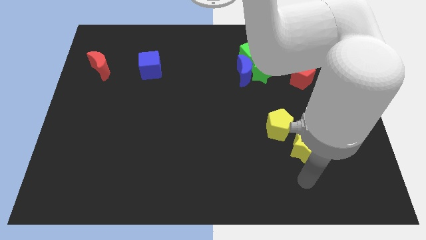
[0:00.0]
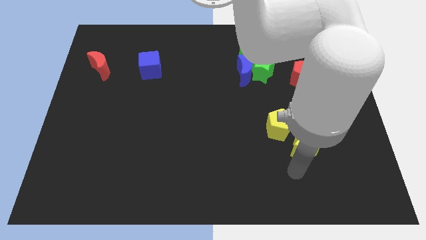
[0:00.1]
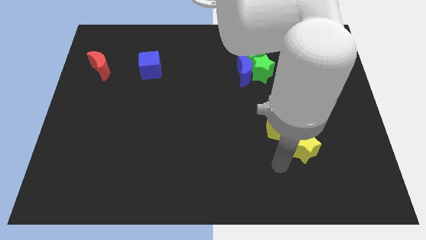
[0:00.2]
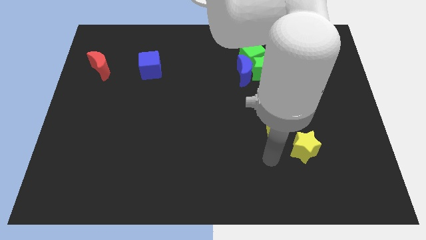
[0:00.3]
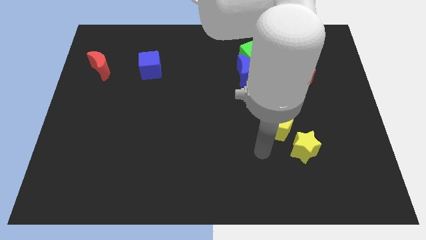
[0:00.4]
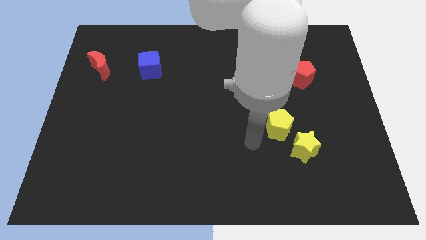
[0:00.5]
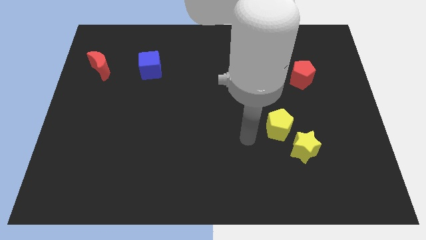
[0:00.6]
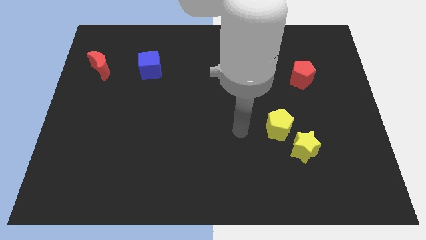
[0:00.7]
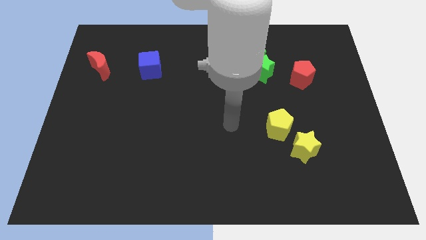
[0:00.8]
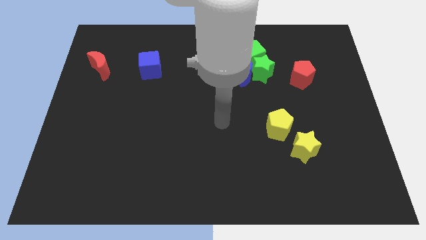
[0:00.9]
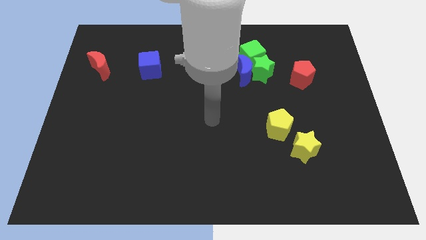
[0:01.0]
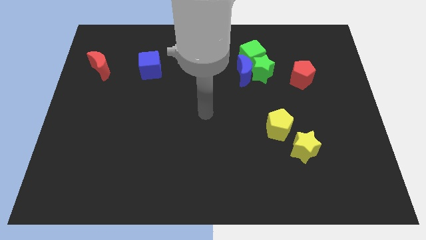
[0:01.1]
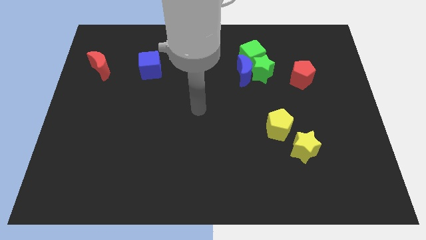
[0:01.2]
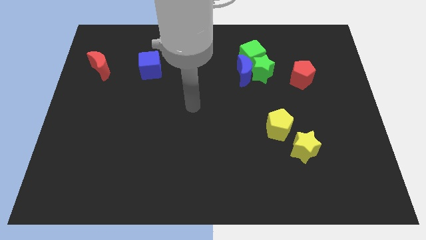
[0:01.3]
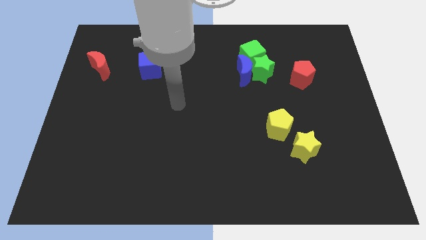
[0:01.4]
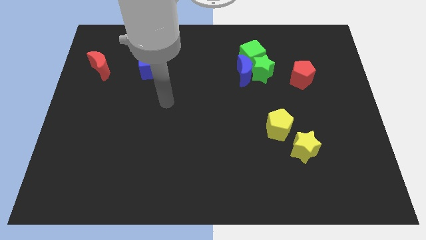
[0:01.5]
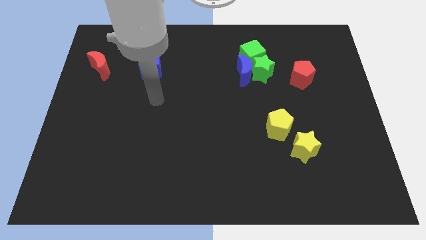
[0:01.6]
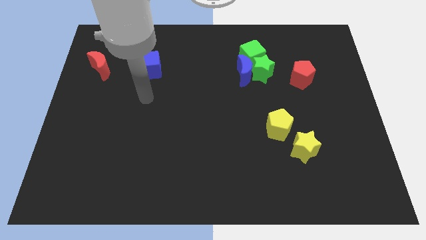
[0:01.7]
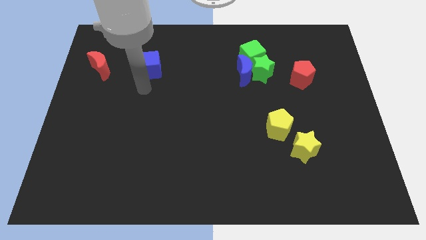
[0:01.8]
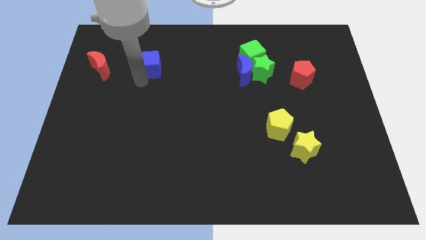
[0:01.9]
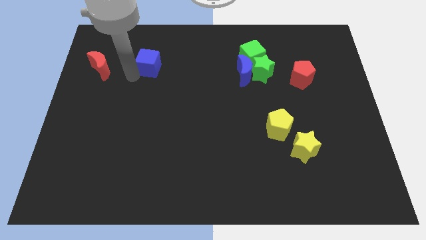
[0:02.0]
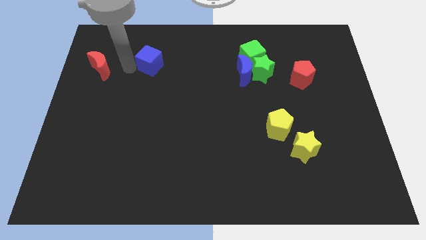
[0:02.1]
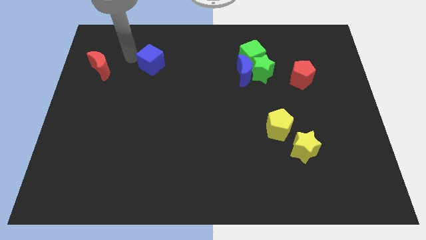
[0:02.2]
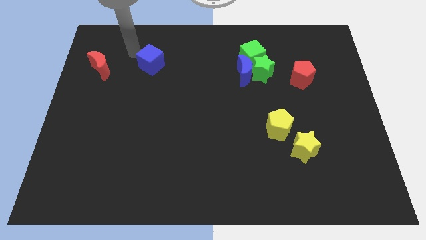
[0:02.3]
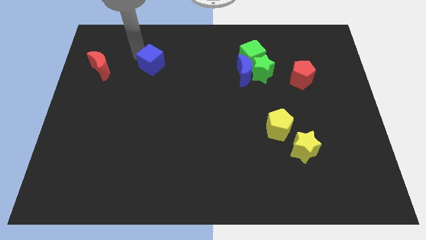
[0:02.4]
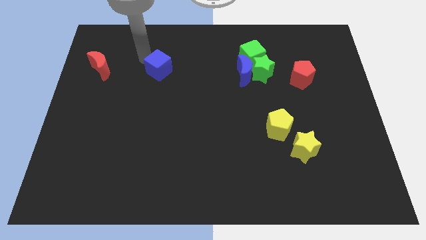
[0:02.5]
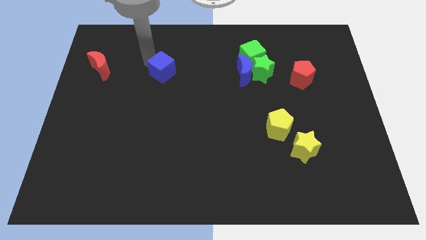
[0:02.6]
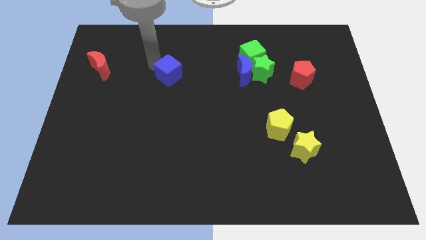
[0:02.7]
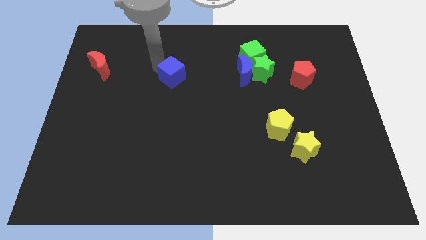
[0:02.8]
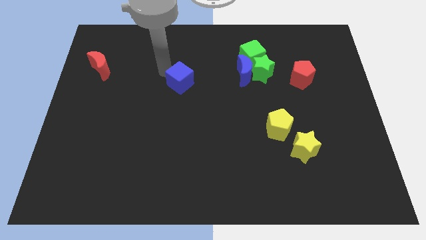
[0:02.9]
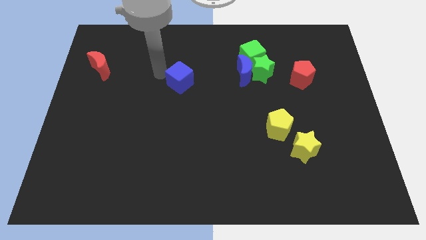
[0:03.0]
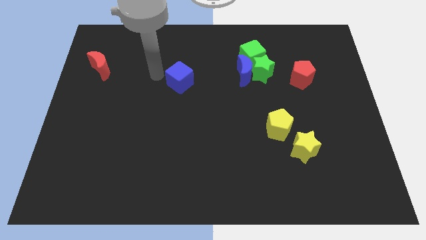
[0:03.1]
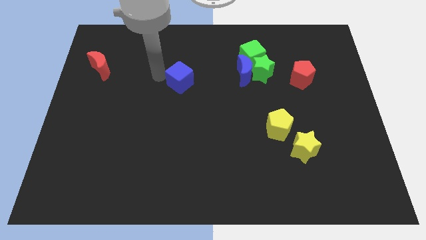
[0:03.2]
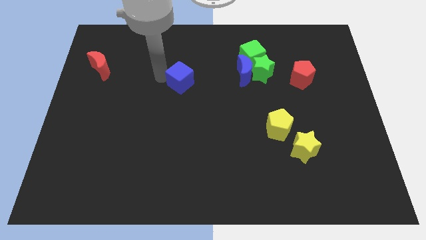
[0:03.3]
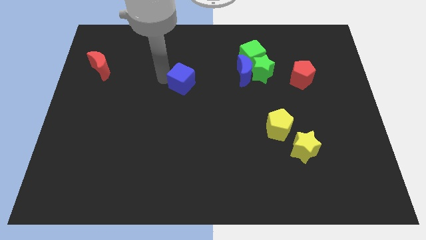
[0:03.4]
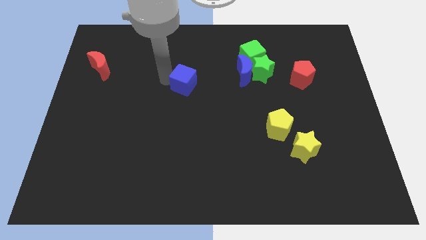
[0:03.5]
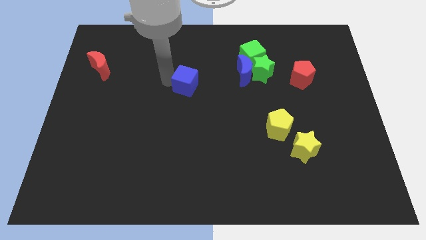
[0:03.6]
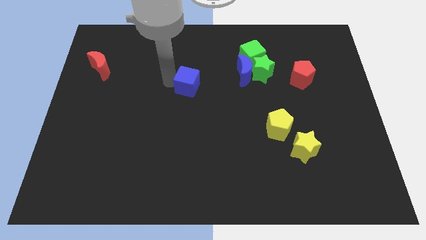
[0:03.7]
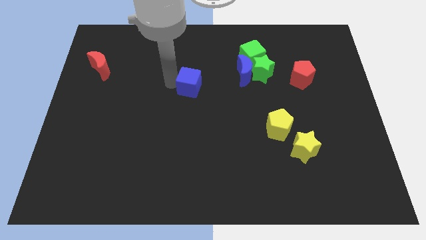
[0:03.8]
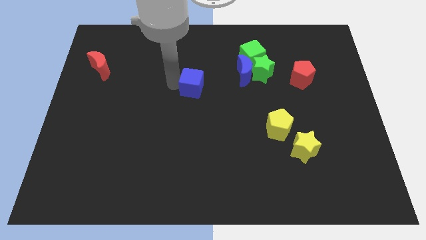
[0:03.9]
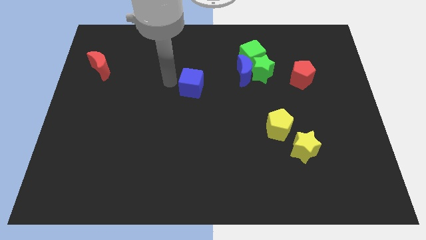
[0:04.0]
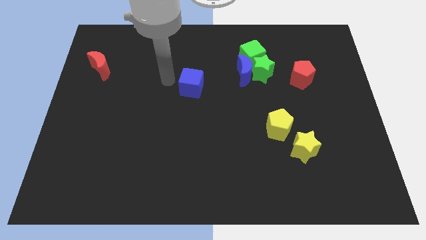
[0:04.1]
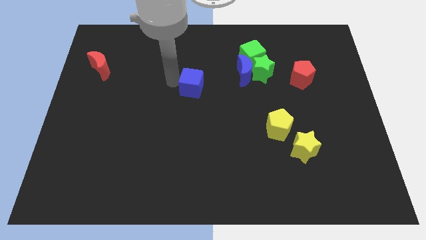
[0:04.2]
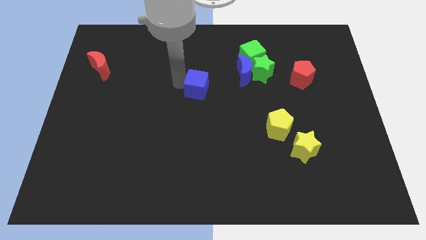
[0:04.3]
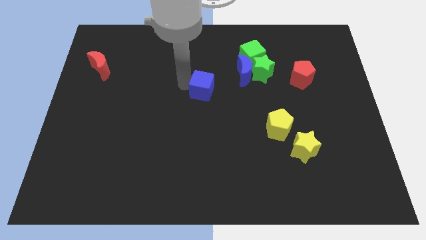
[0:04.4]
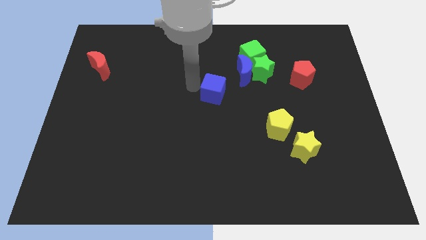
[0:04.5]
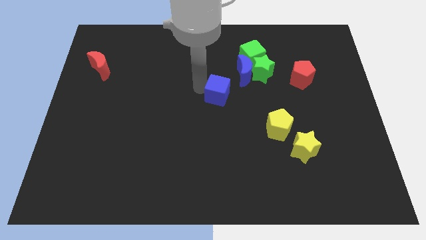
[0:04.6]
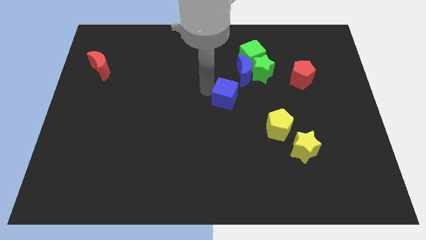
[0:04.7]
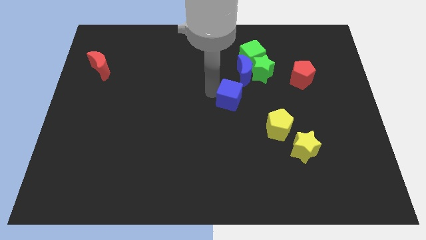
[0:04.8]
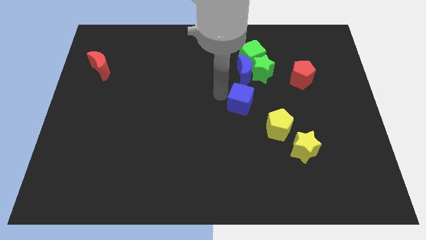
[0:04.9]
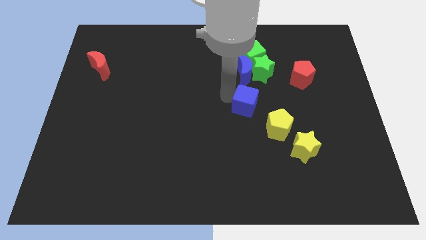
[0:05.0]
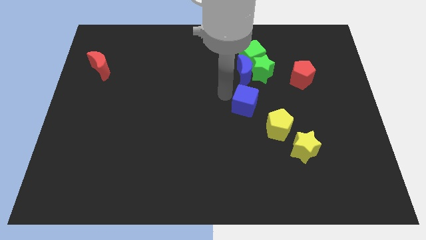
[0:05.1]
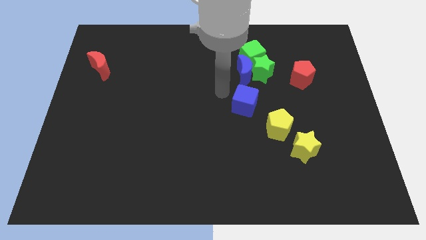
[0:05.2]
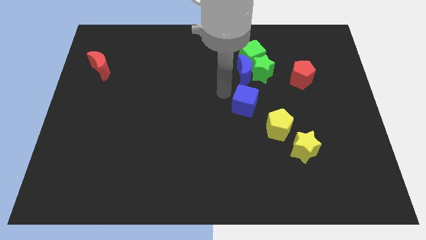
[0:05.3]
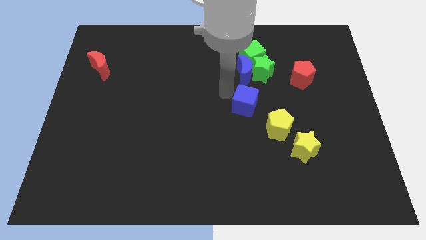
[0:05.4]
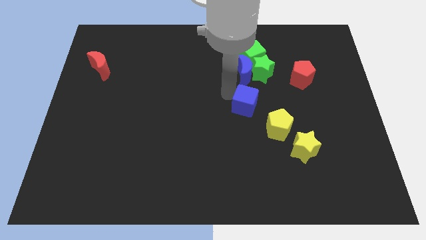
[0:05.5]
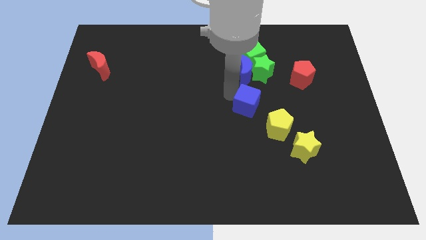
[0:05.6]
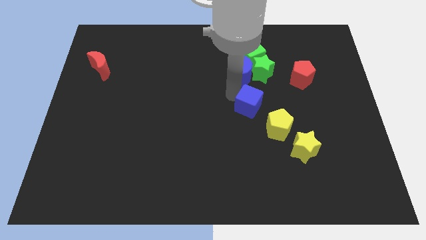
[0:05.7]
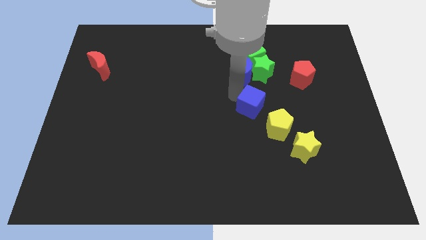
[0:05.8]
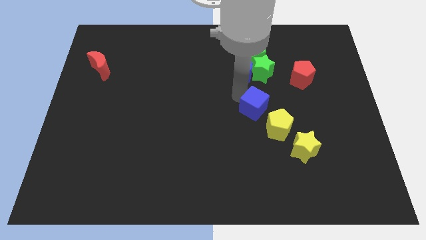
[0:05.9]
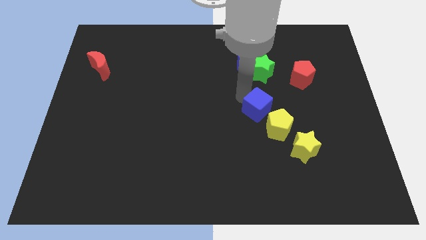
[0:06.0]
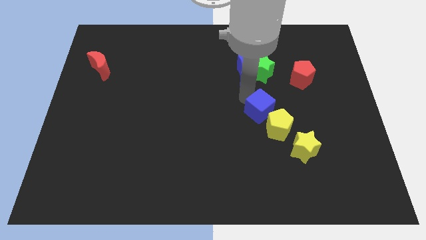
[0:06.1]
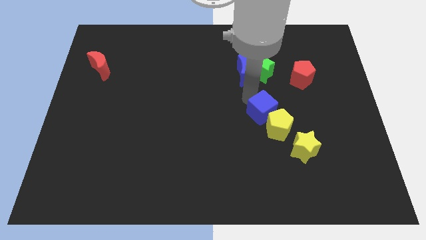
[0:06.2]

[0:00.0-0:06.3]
move the blue cube next to the yellow pentagon

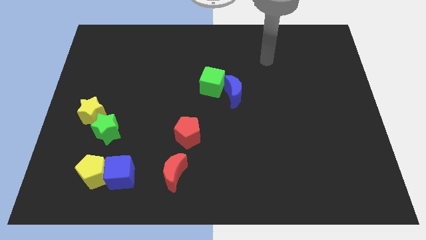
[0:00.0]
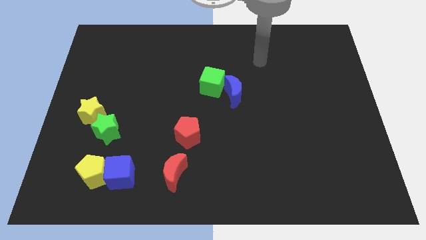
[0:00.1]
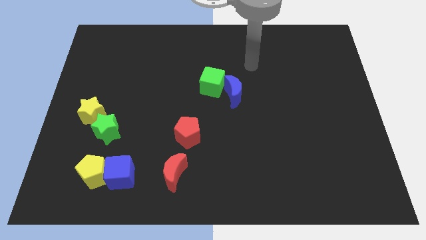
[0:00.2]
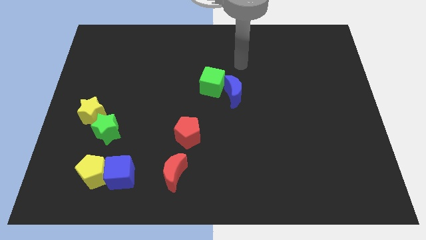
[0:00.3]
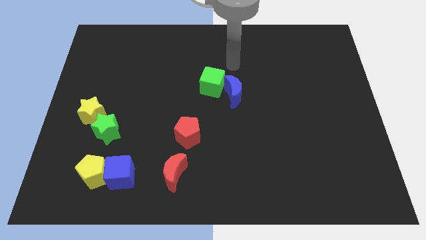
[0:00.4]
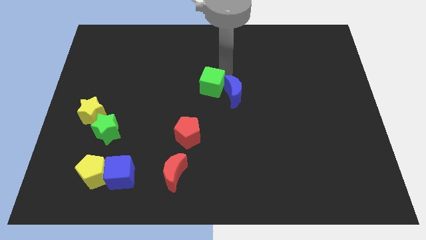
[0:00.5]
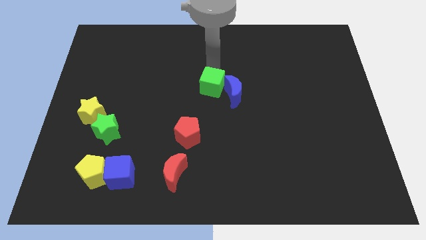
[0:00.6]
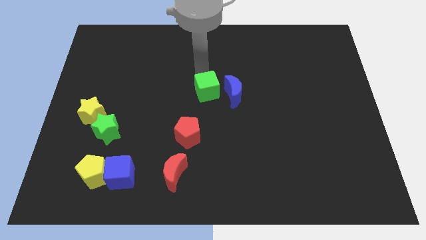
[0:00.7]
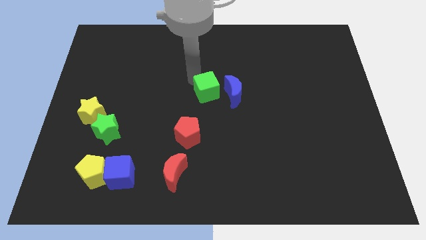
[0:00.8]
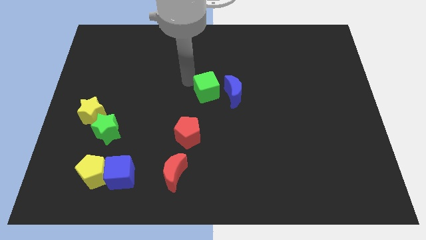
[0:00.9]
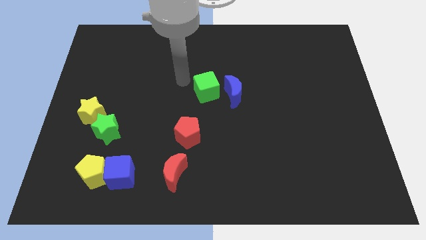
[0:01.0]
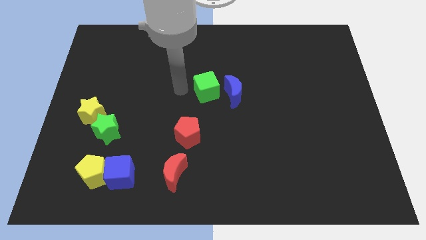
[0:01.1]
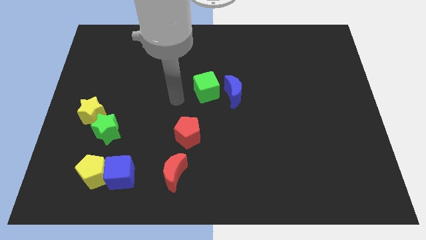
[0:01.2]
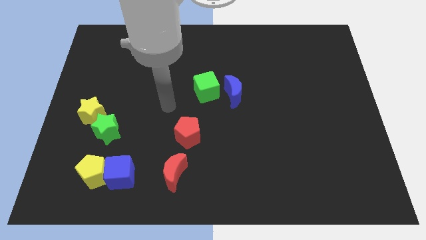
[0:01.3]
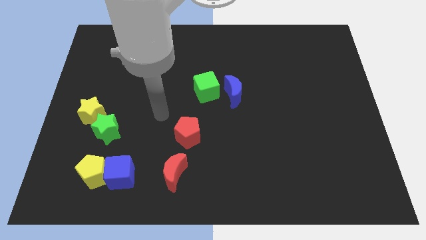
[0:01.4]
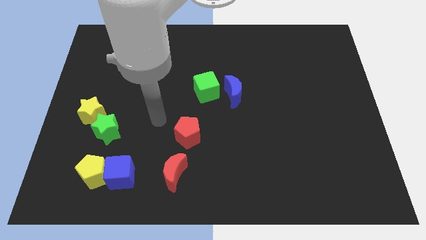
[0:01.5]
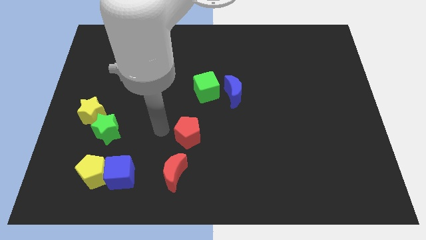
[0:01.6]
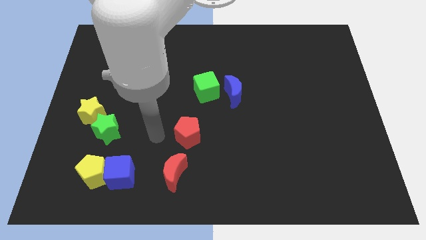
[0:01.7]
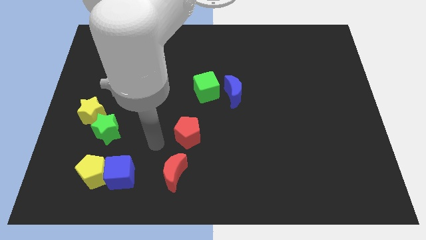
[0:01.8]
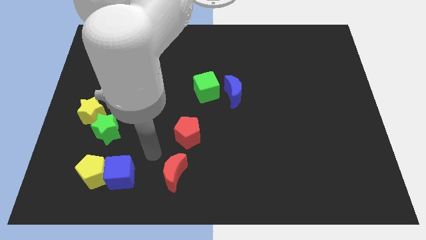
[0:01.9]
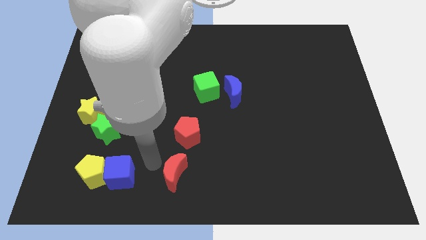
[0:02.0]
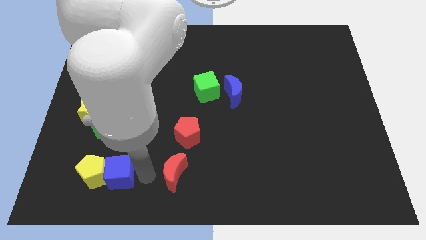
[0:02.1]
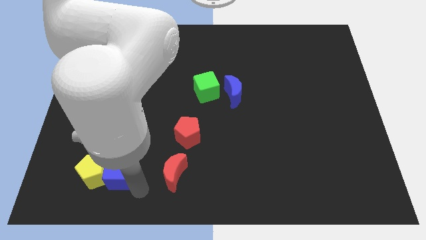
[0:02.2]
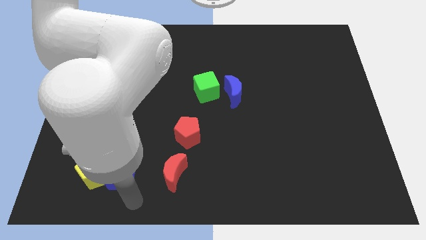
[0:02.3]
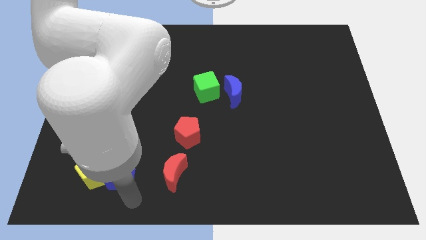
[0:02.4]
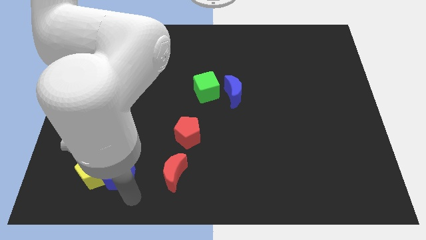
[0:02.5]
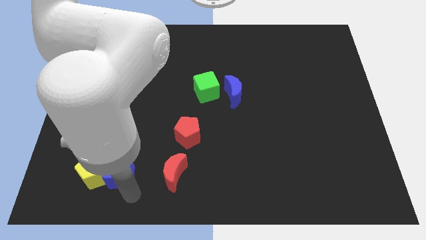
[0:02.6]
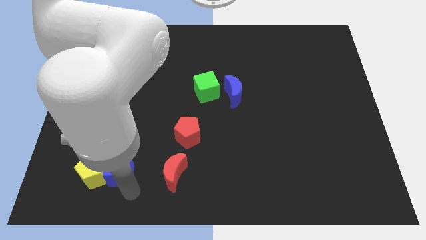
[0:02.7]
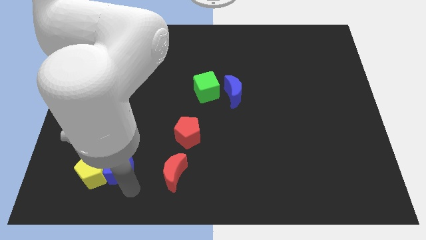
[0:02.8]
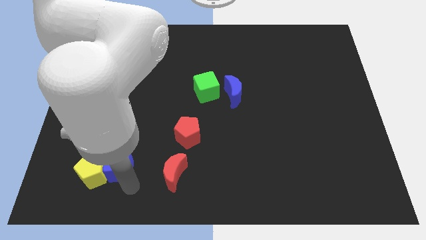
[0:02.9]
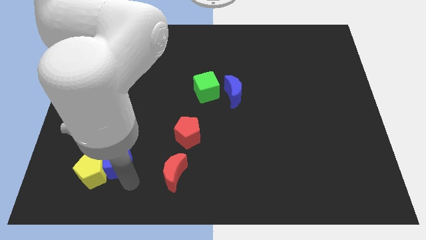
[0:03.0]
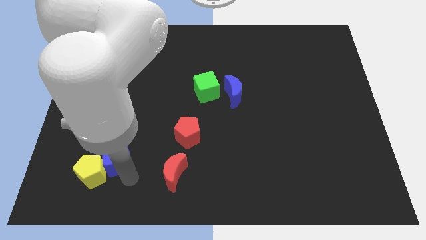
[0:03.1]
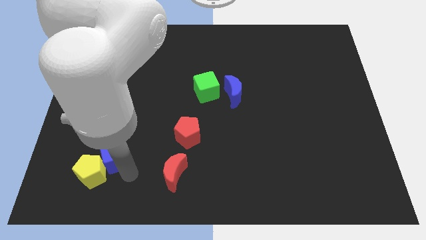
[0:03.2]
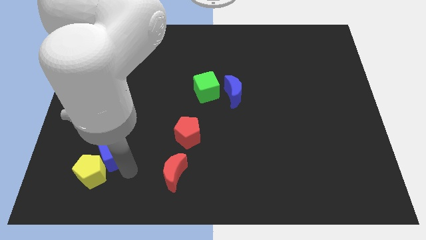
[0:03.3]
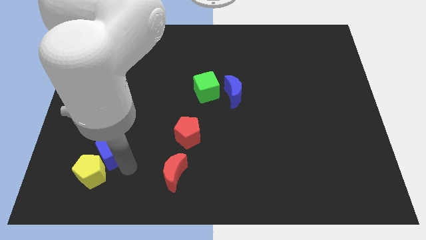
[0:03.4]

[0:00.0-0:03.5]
put the blue cube to the green star
